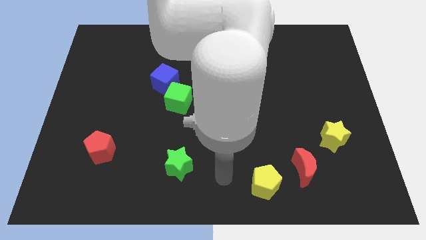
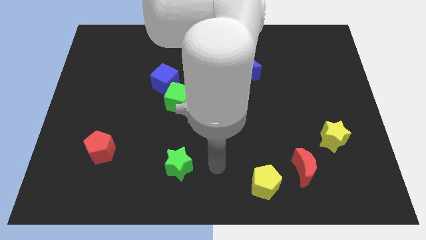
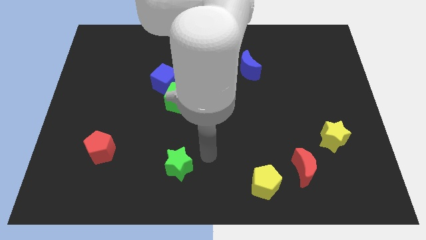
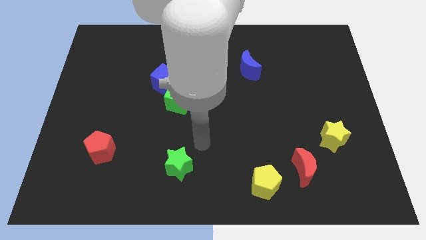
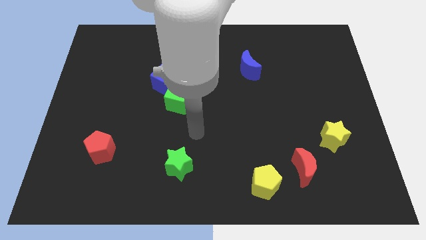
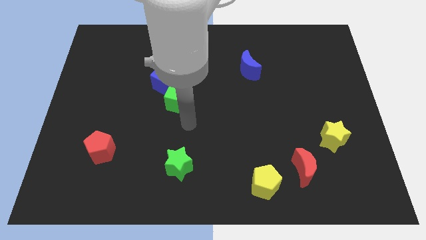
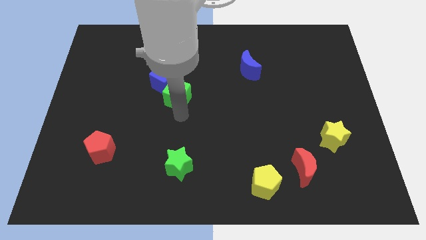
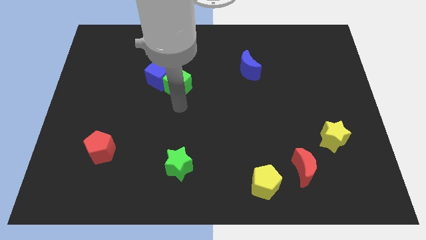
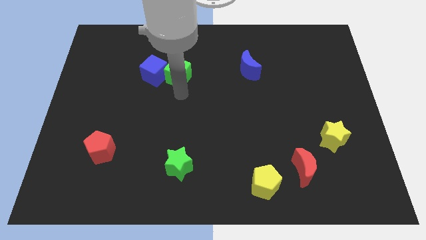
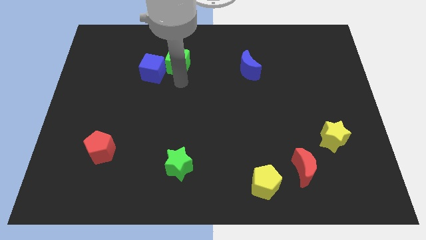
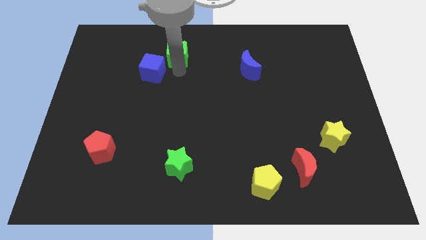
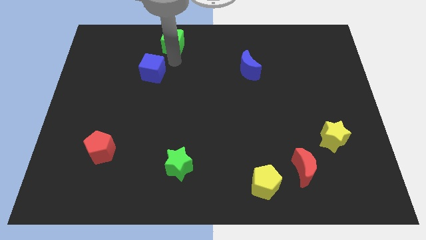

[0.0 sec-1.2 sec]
move the blue cube away from the green cube

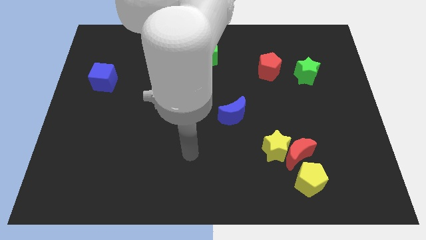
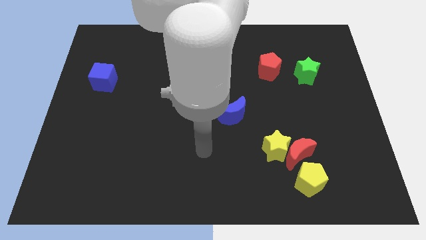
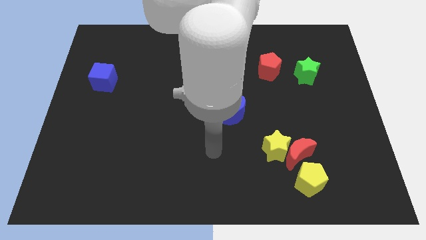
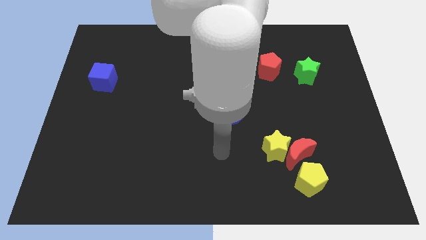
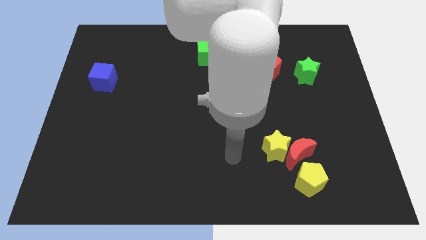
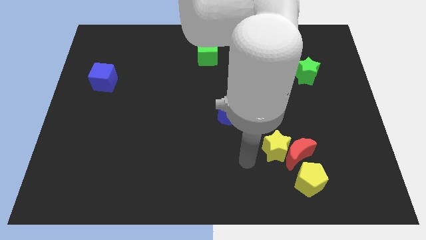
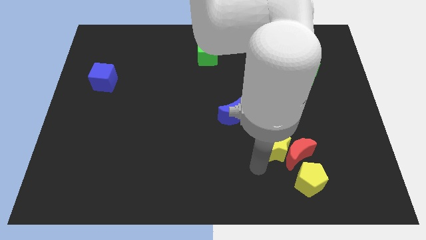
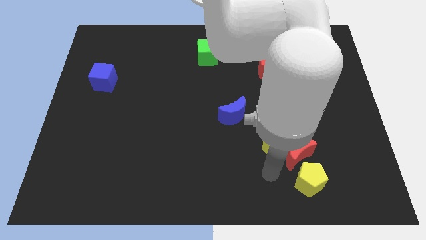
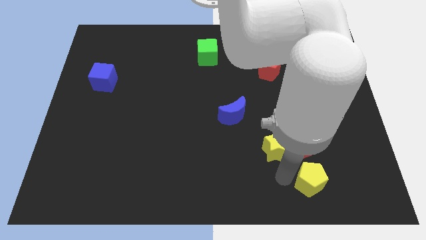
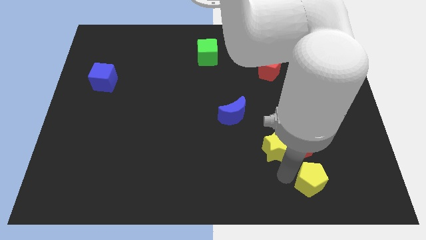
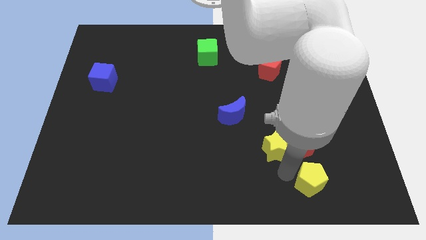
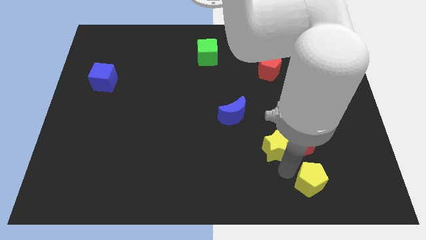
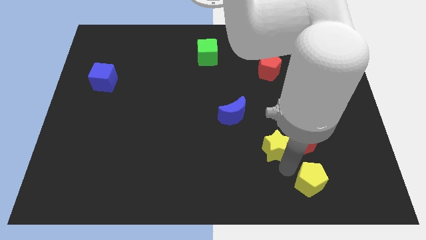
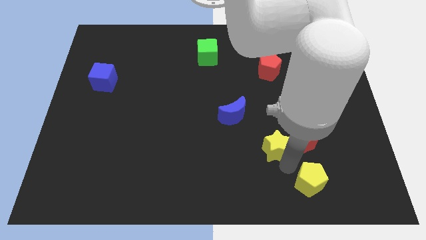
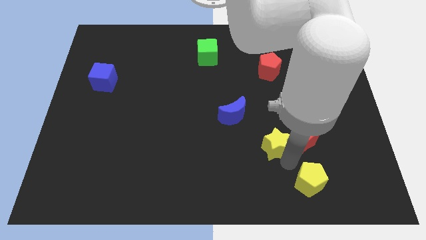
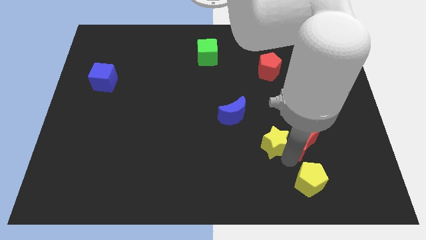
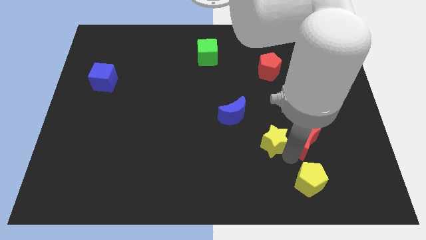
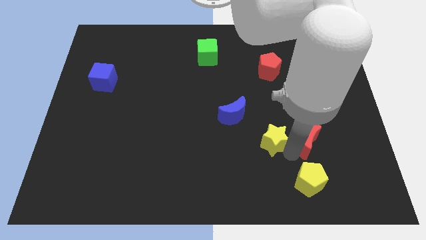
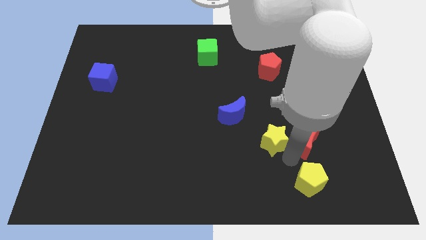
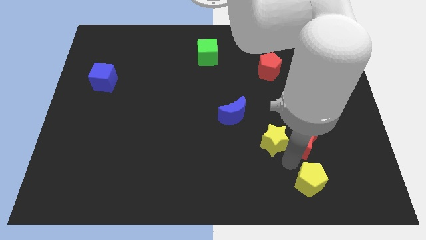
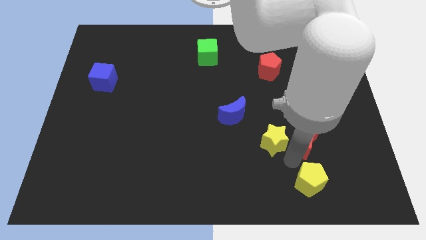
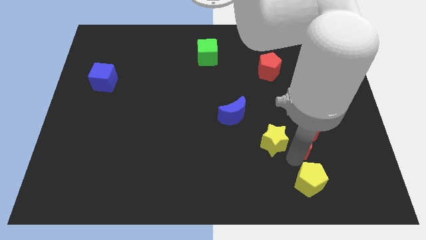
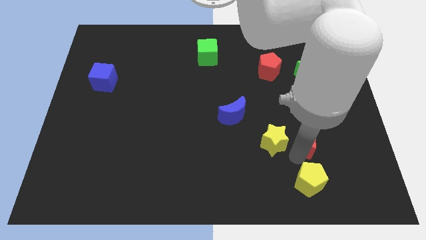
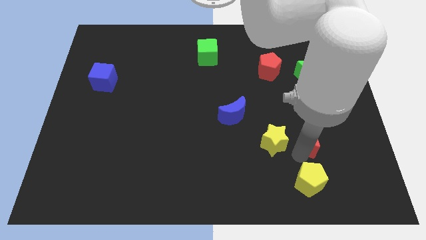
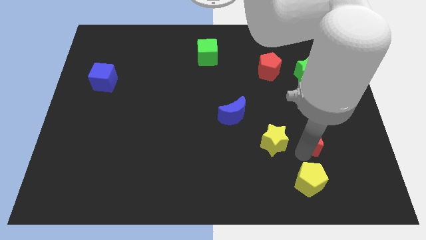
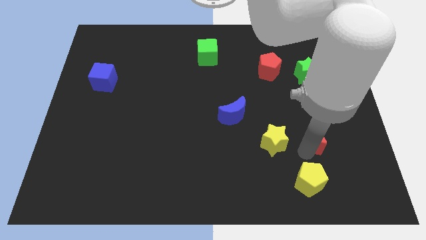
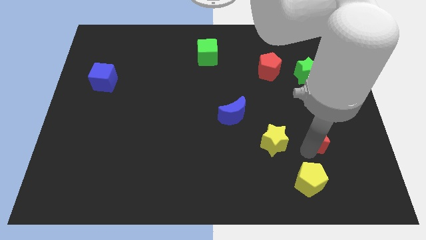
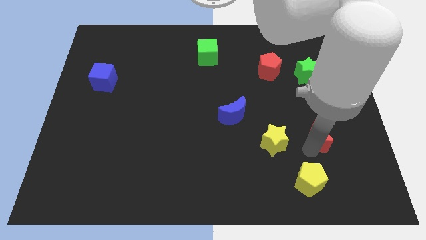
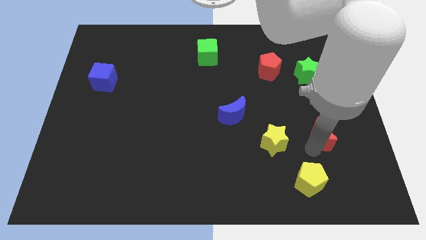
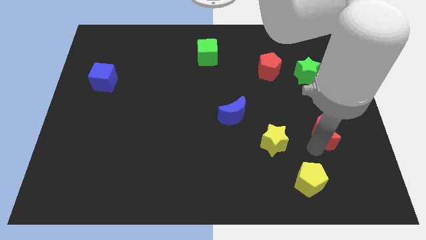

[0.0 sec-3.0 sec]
separate the red moon from the yellow star and yellow pentagon

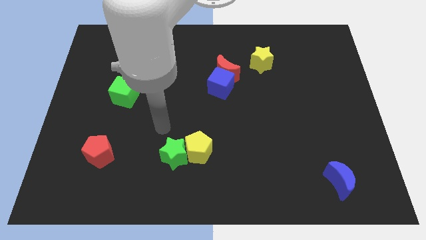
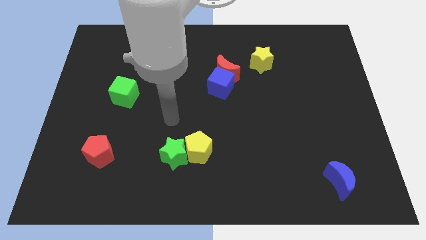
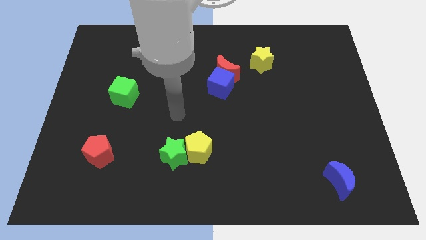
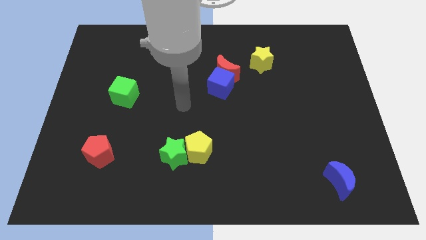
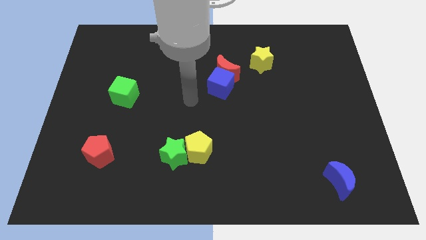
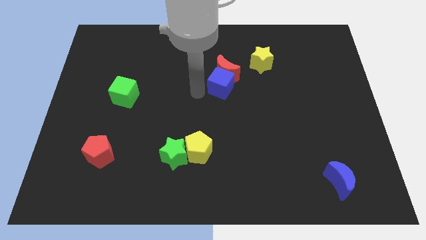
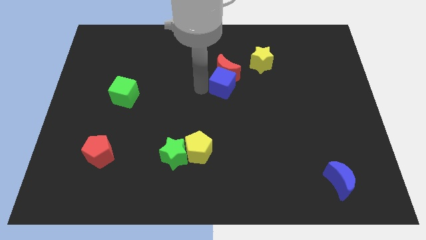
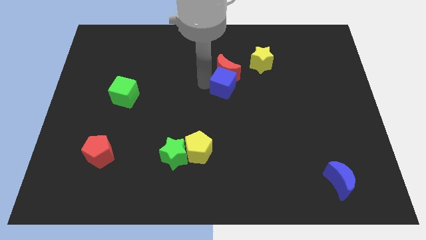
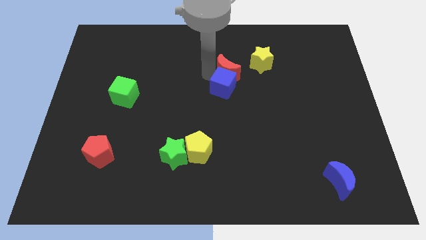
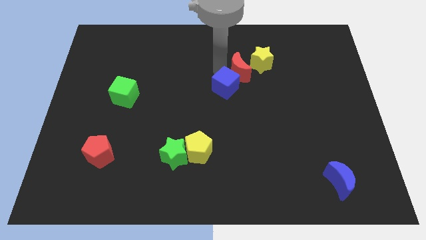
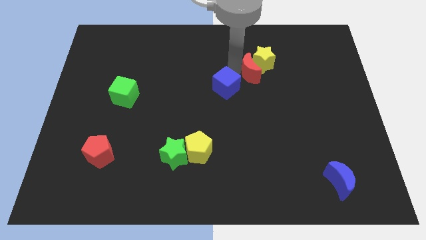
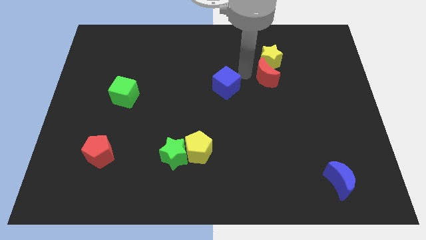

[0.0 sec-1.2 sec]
pull the blue cube apart from the red moon

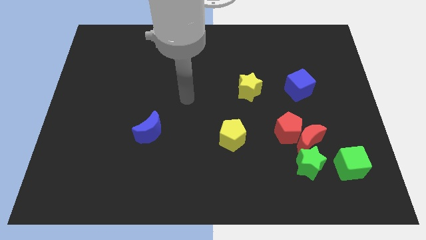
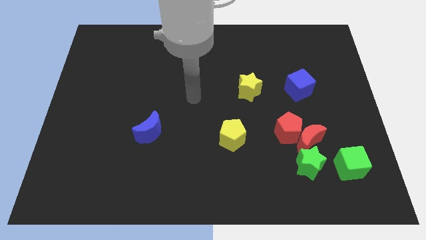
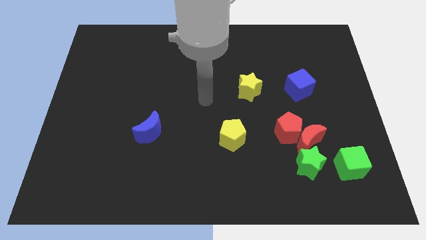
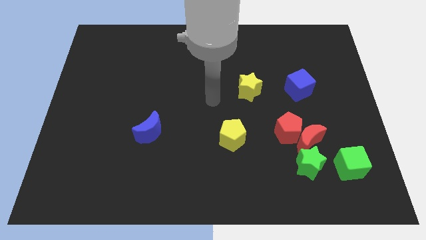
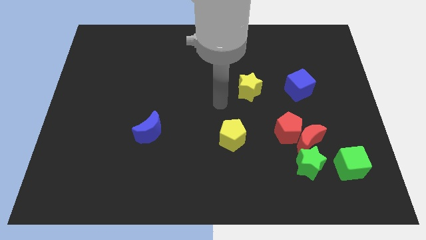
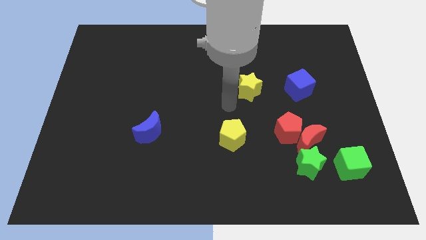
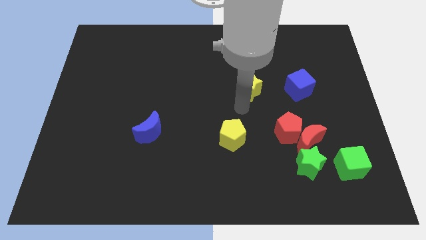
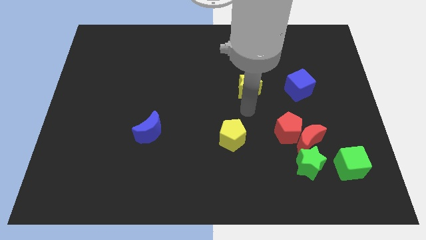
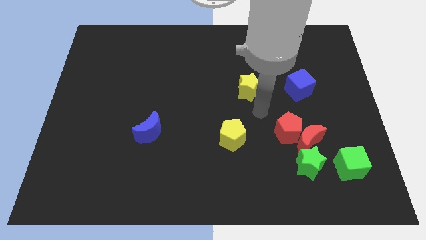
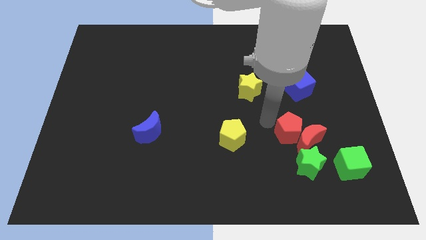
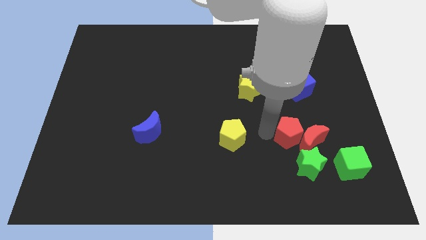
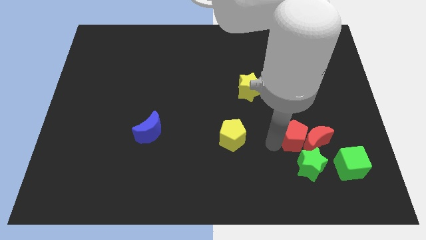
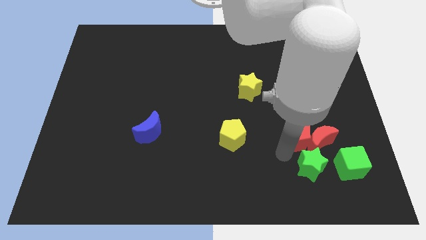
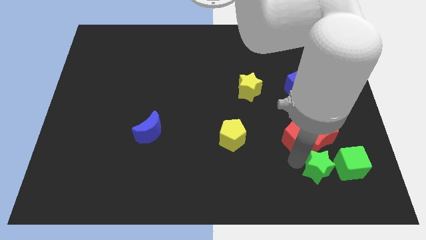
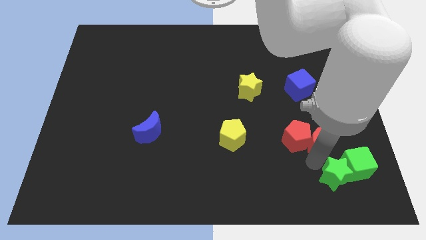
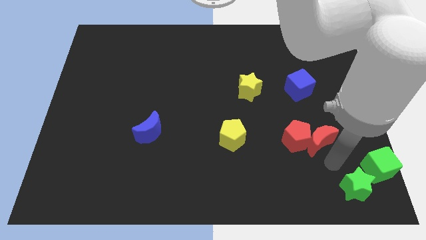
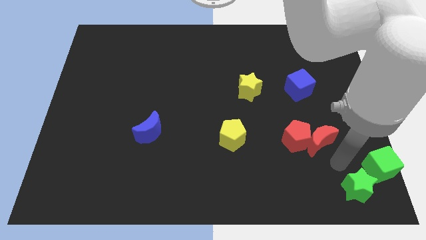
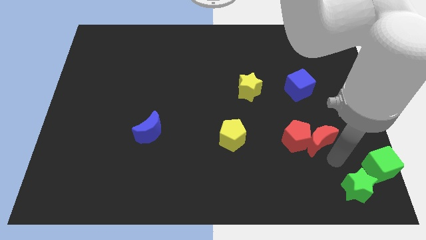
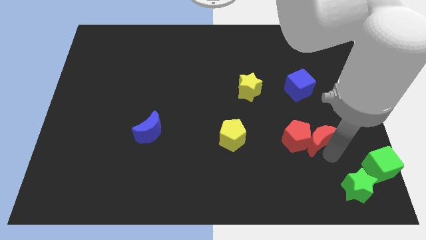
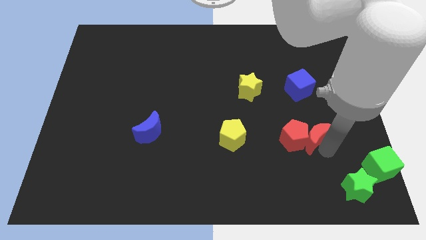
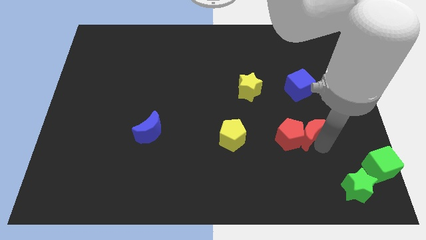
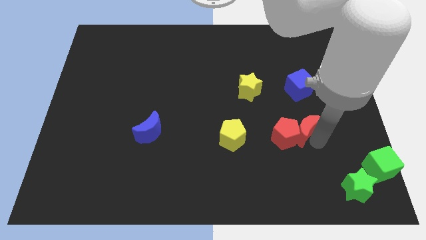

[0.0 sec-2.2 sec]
separate the red moon from the red pentagon, green star, and green cube

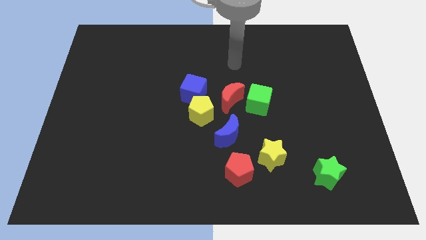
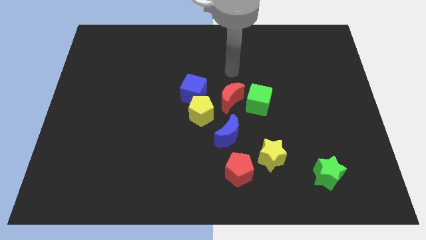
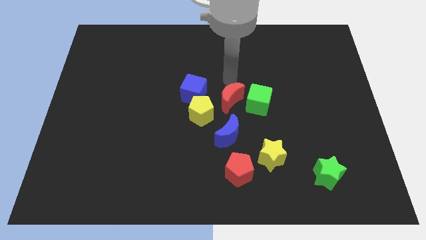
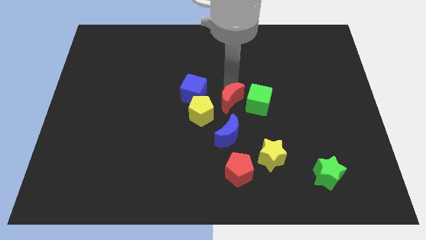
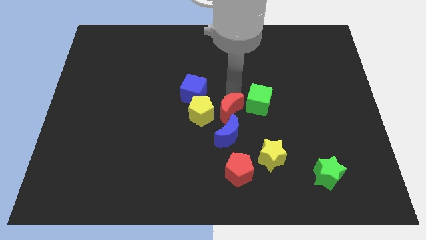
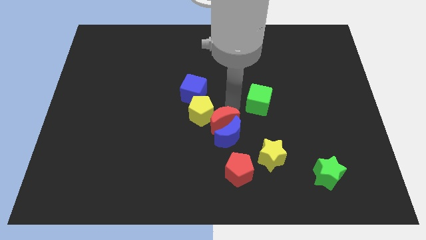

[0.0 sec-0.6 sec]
pull the green cube apart from the red moon

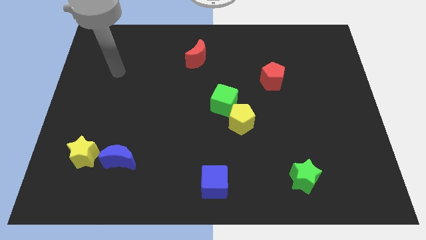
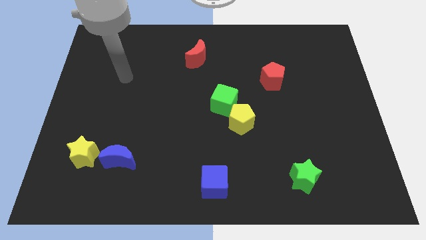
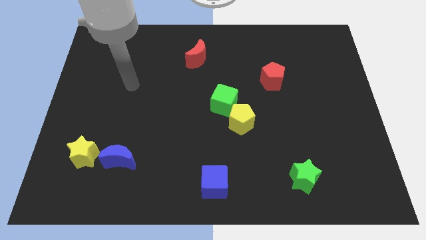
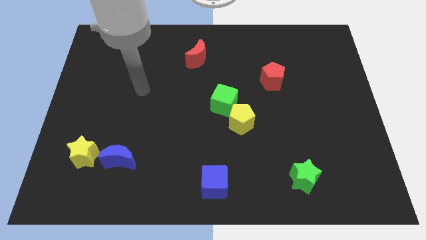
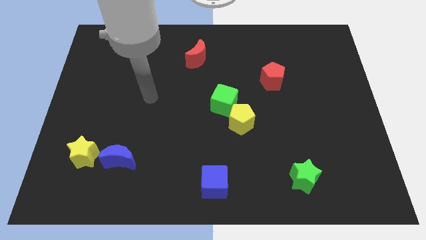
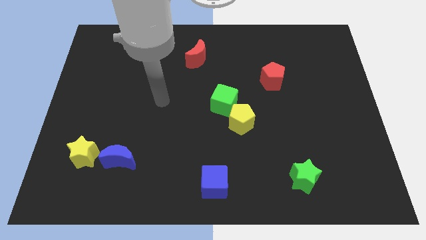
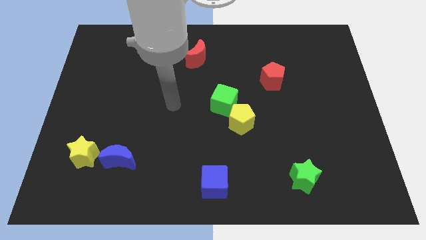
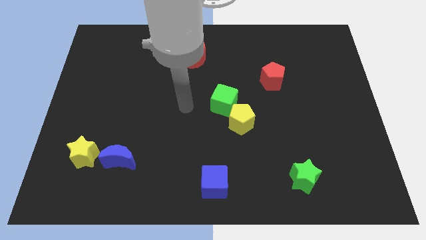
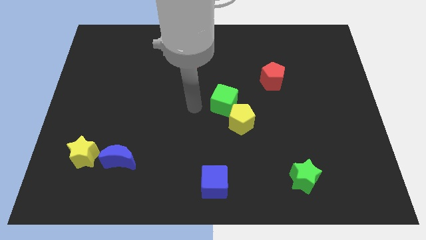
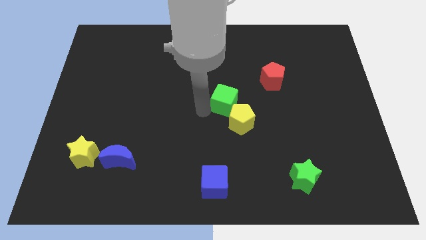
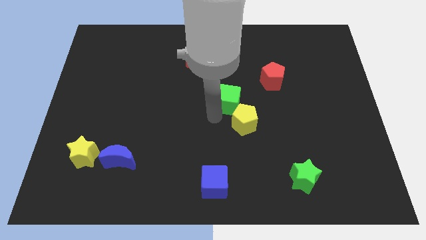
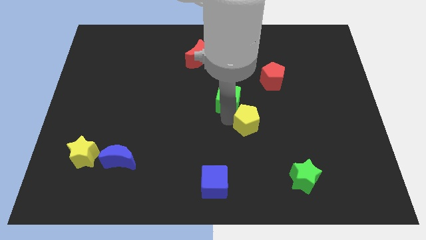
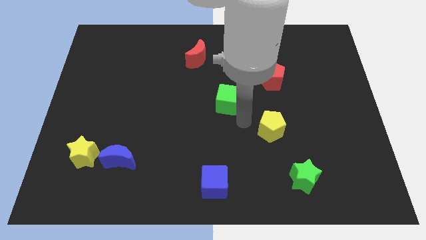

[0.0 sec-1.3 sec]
pull the green cube apart from the yellow pentagon
